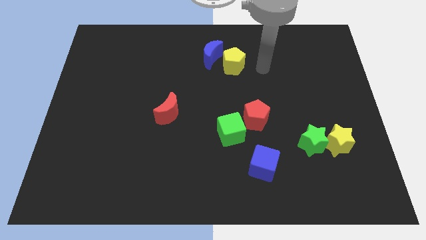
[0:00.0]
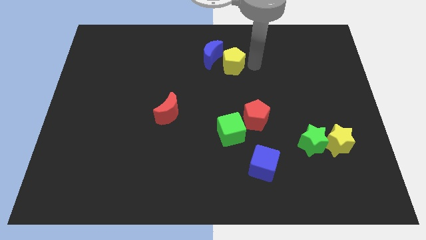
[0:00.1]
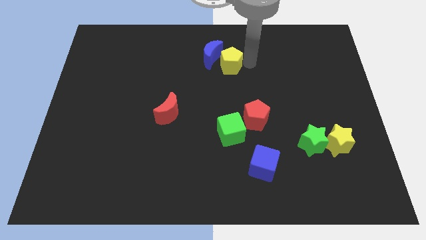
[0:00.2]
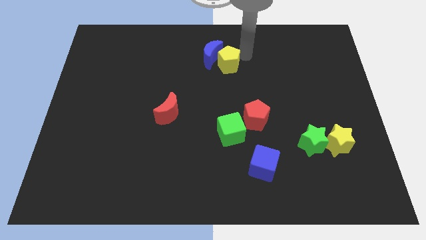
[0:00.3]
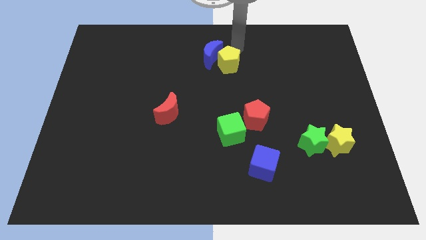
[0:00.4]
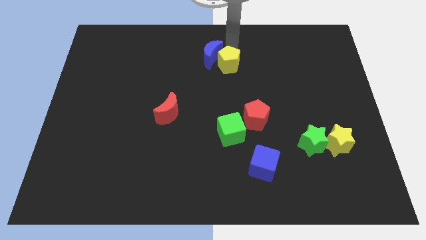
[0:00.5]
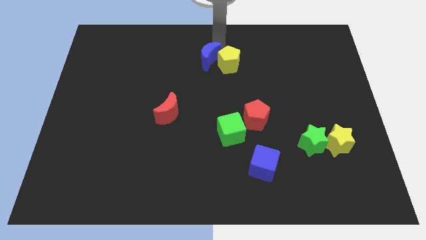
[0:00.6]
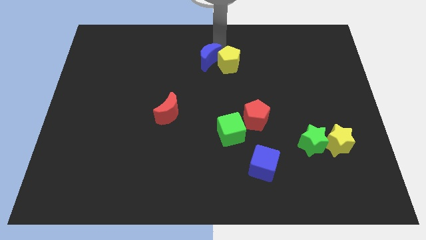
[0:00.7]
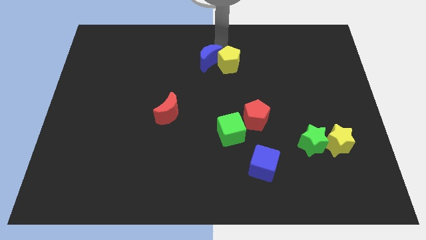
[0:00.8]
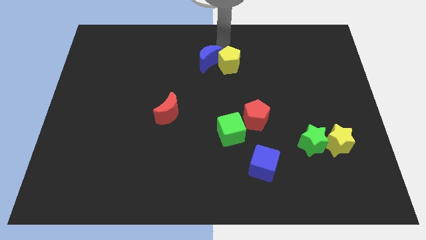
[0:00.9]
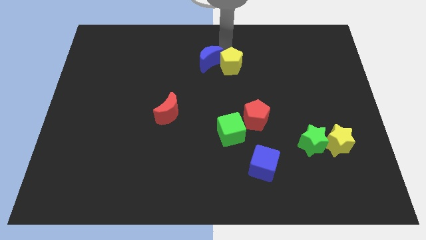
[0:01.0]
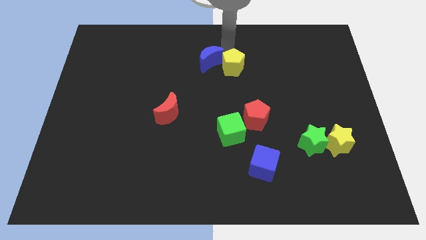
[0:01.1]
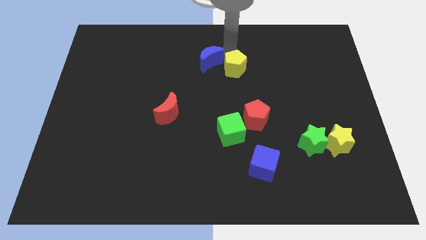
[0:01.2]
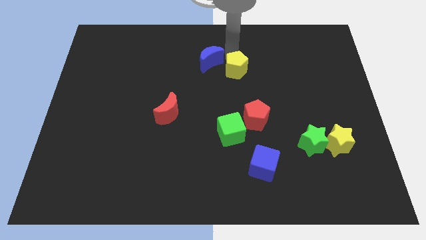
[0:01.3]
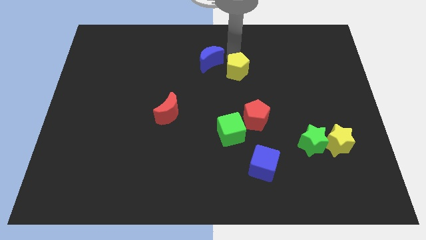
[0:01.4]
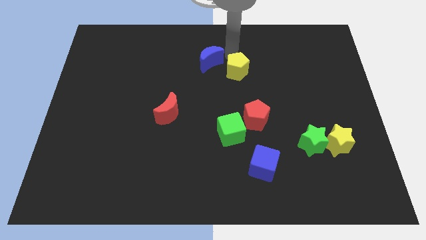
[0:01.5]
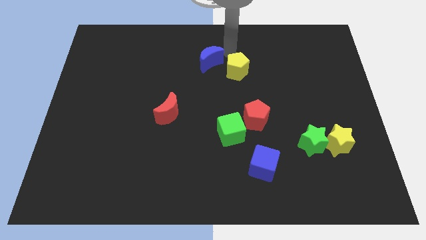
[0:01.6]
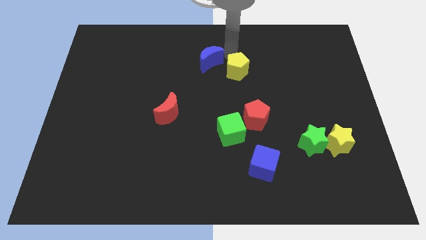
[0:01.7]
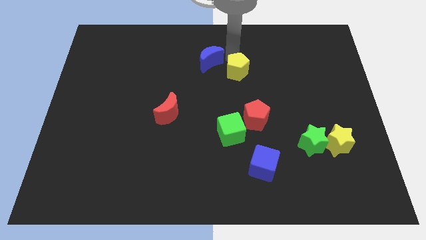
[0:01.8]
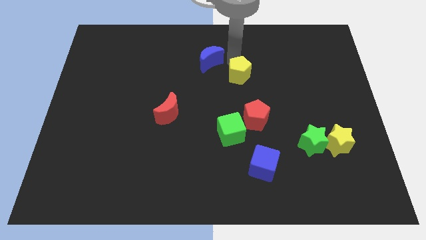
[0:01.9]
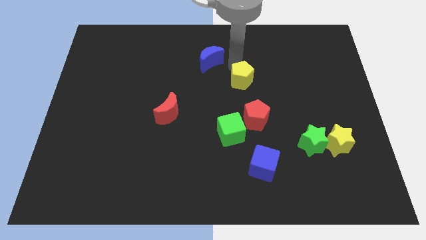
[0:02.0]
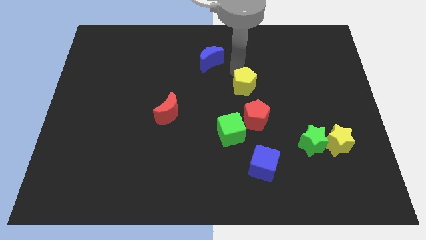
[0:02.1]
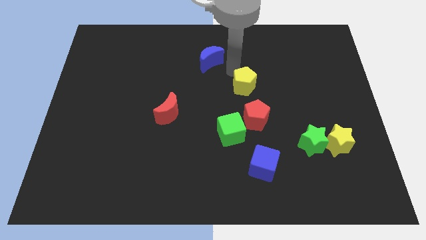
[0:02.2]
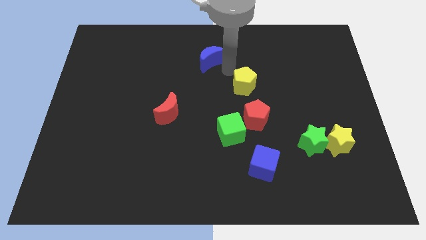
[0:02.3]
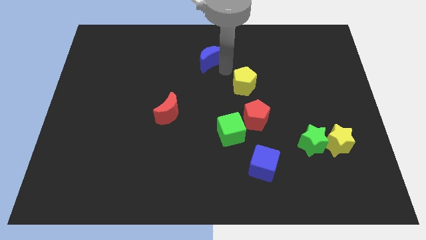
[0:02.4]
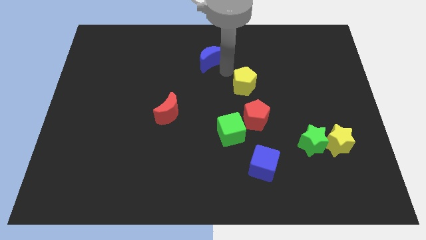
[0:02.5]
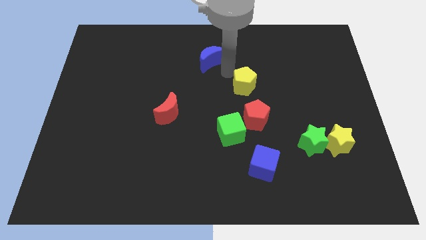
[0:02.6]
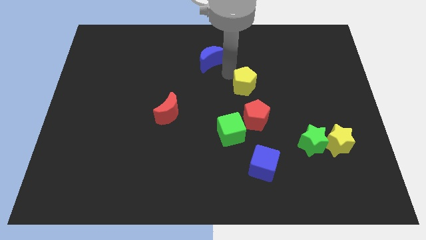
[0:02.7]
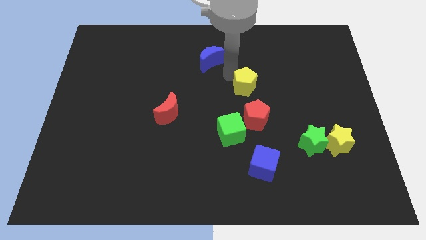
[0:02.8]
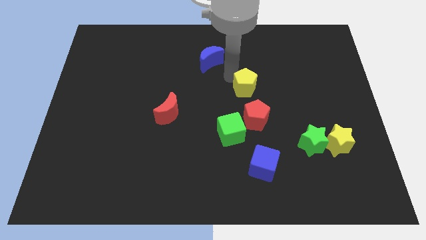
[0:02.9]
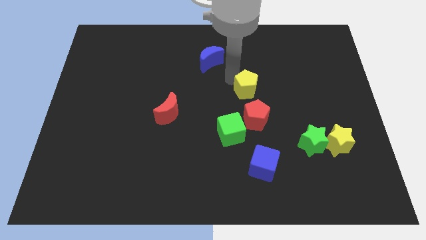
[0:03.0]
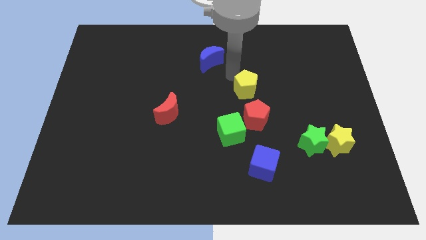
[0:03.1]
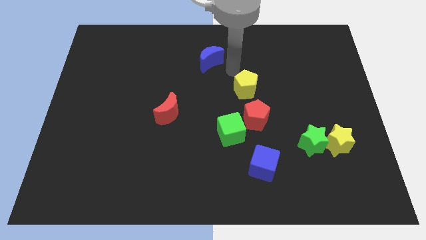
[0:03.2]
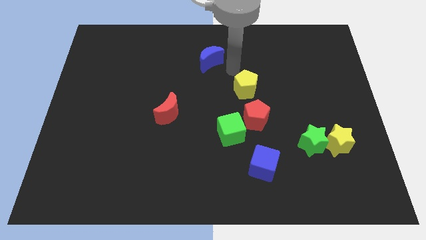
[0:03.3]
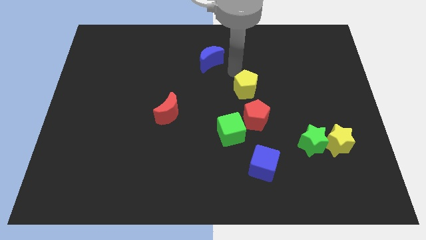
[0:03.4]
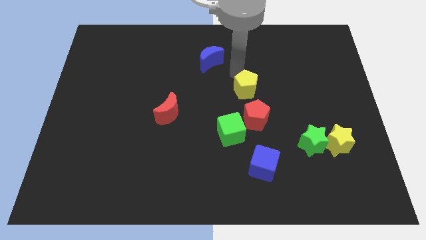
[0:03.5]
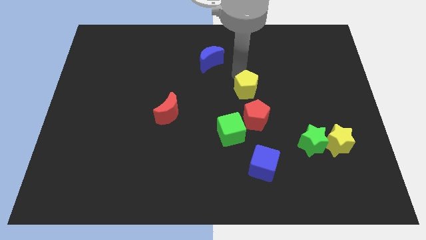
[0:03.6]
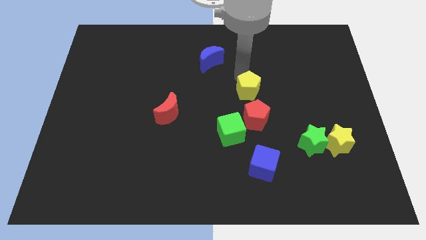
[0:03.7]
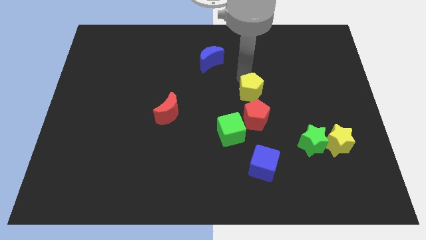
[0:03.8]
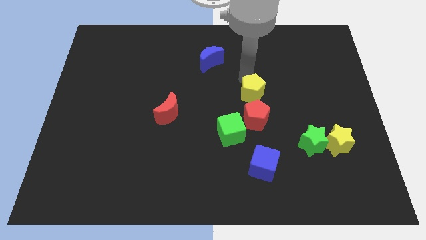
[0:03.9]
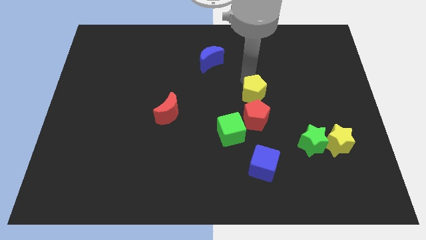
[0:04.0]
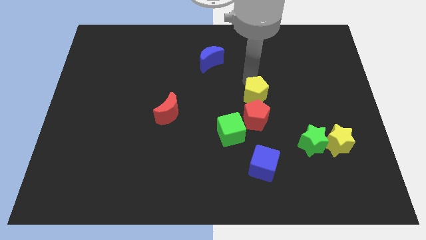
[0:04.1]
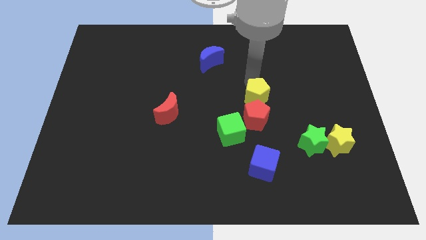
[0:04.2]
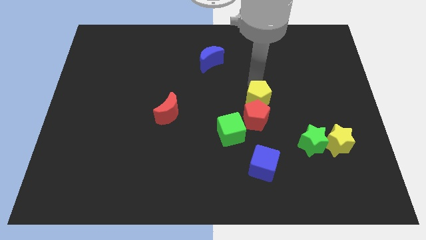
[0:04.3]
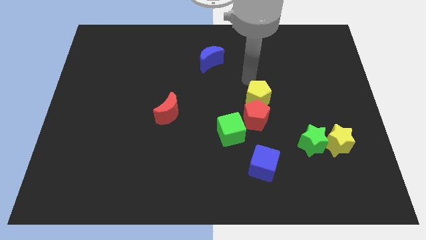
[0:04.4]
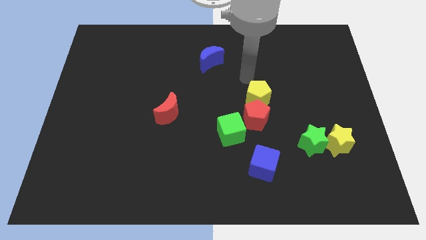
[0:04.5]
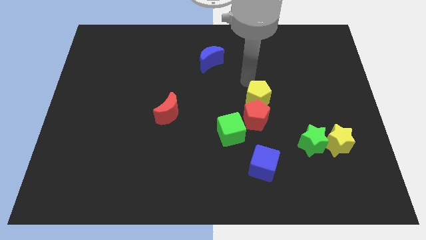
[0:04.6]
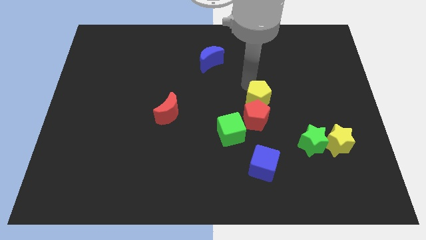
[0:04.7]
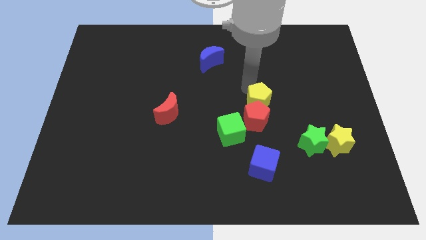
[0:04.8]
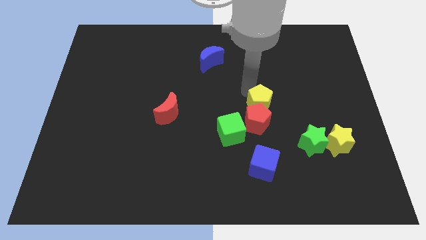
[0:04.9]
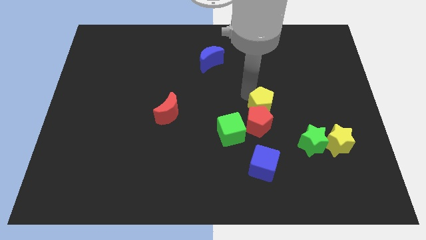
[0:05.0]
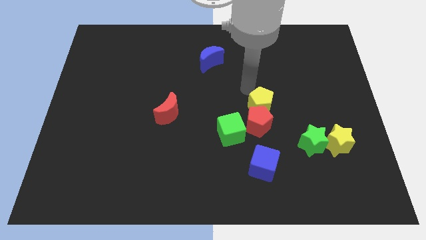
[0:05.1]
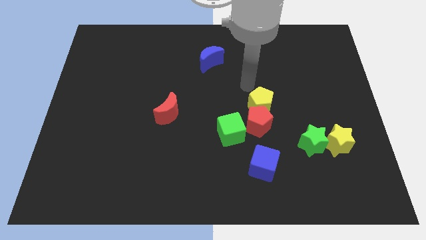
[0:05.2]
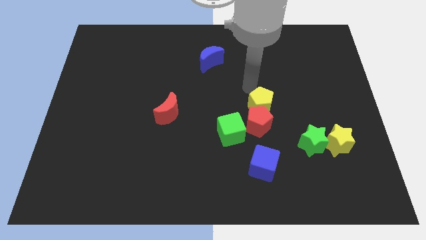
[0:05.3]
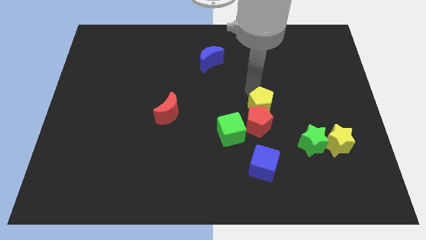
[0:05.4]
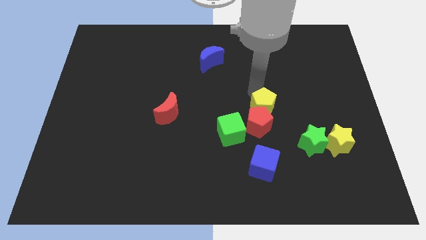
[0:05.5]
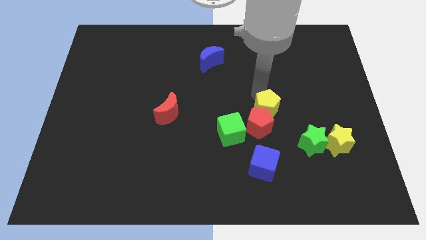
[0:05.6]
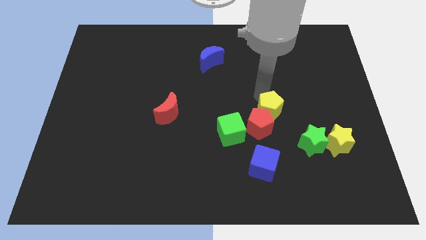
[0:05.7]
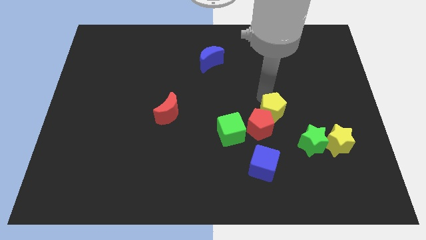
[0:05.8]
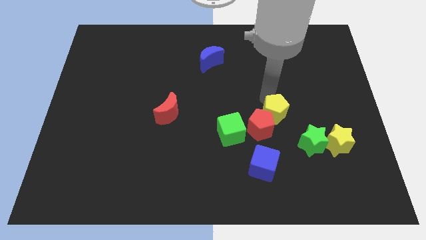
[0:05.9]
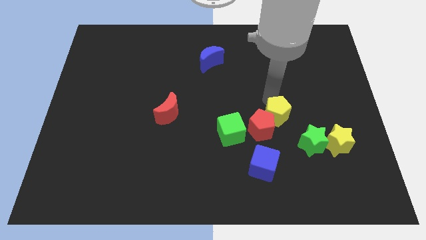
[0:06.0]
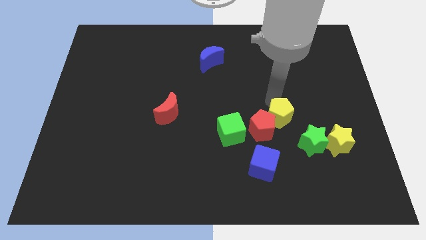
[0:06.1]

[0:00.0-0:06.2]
push the yellow pentagon to the right of the green cube
